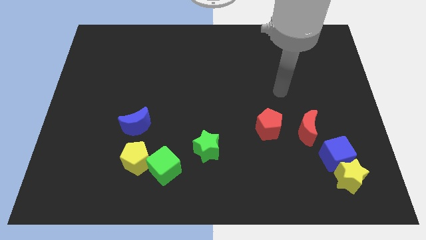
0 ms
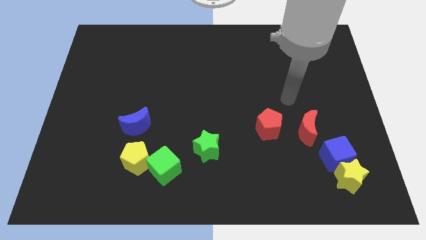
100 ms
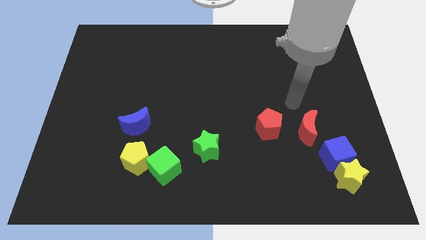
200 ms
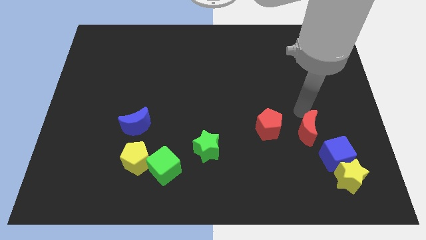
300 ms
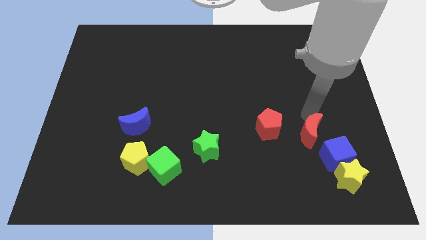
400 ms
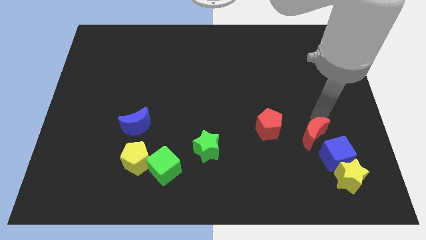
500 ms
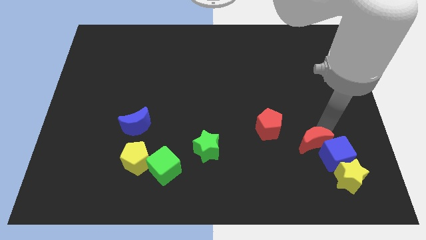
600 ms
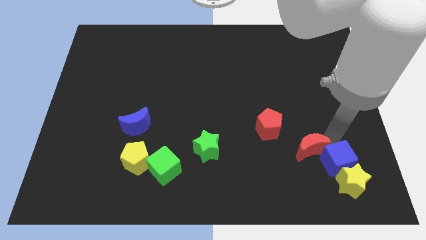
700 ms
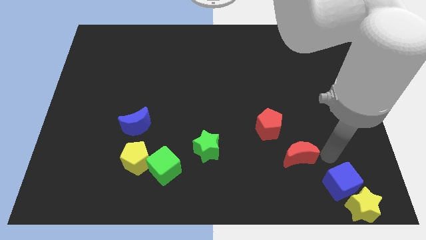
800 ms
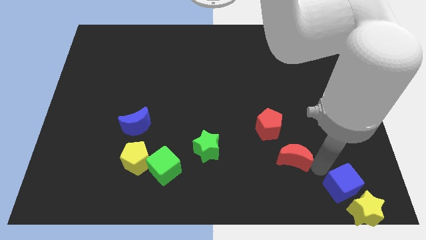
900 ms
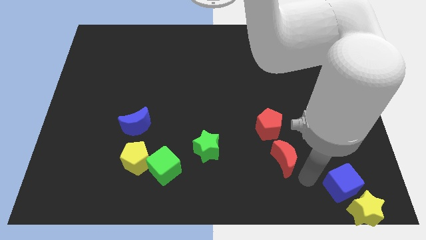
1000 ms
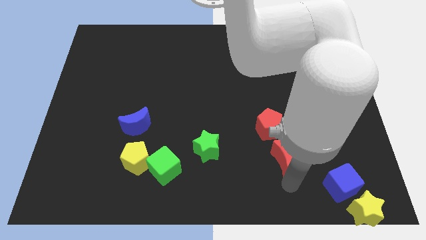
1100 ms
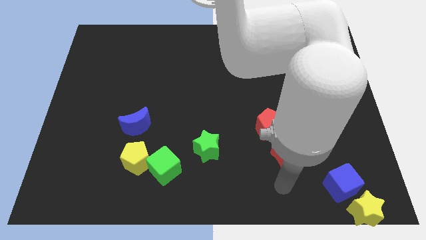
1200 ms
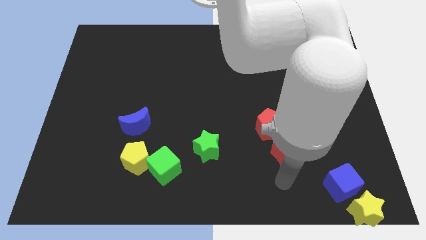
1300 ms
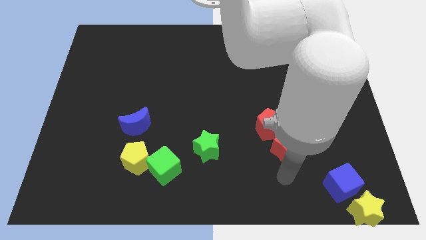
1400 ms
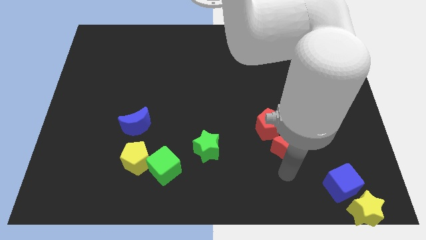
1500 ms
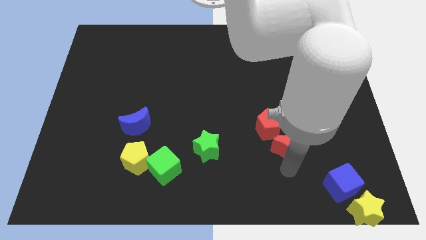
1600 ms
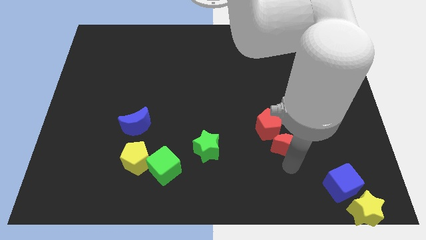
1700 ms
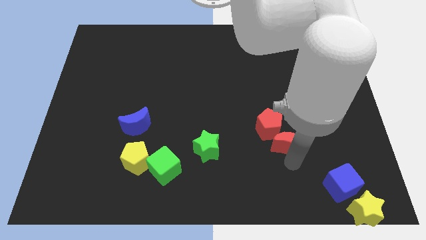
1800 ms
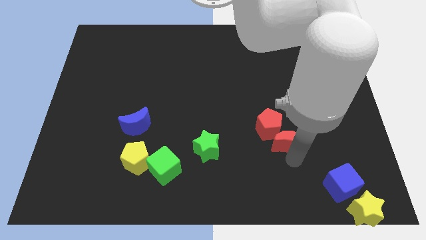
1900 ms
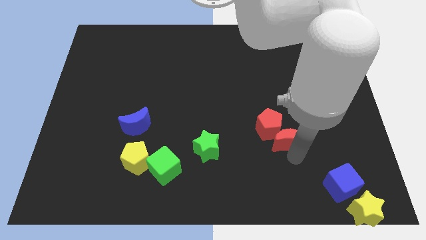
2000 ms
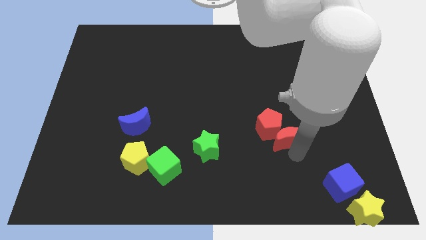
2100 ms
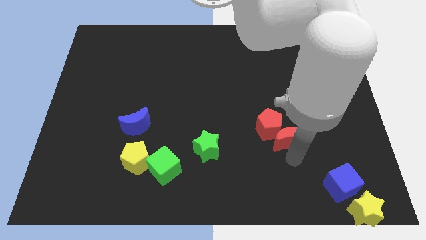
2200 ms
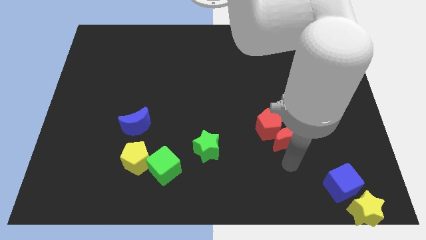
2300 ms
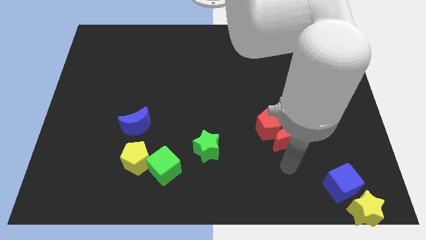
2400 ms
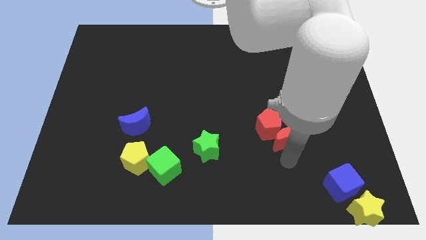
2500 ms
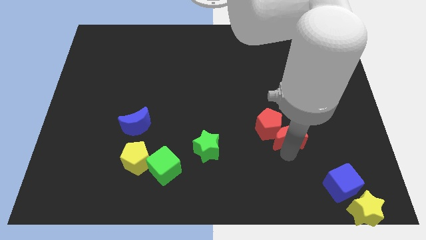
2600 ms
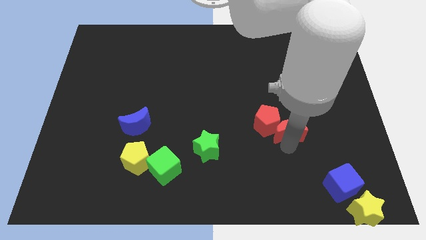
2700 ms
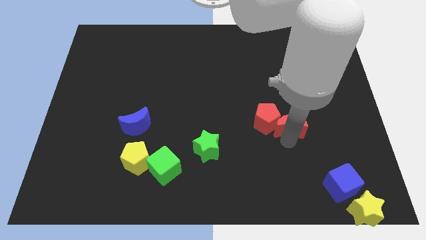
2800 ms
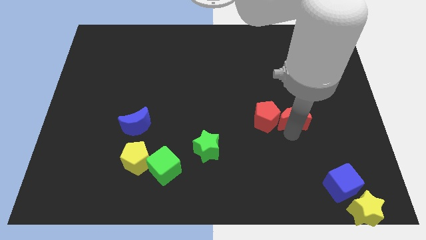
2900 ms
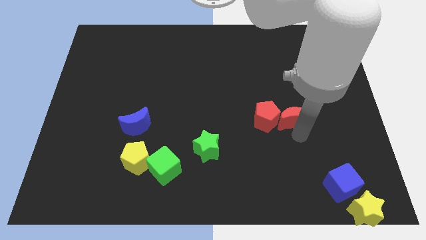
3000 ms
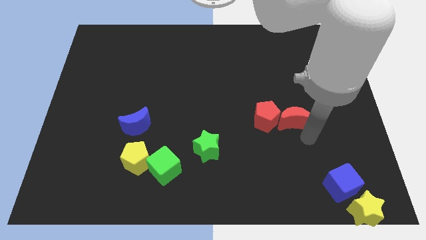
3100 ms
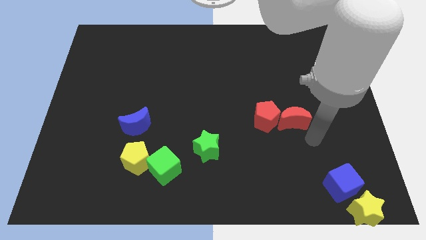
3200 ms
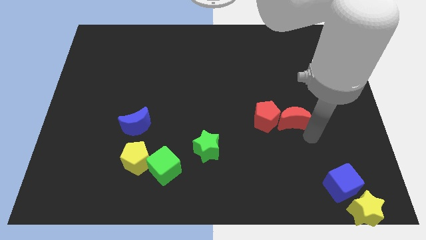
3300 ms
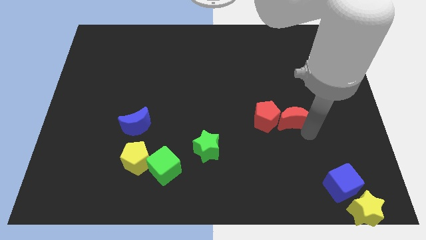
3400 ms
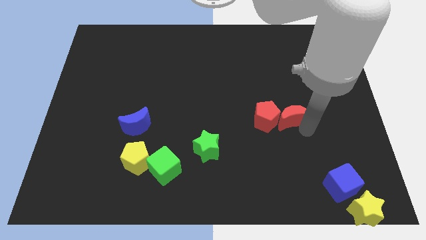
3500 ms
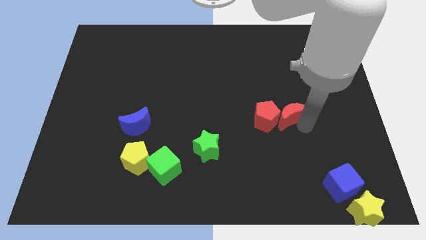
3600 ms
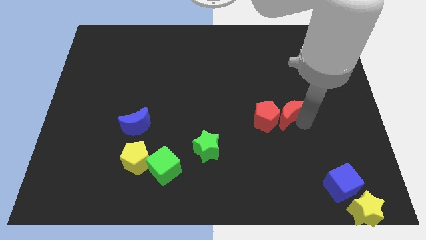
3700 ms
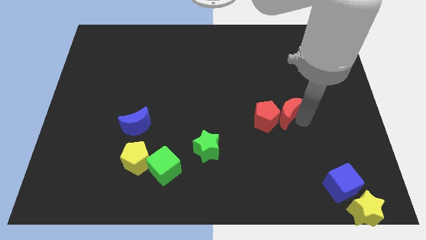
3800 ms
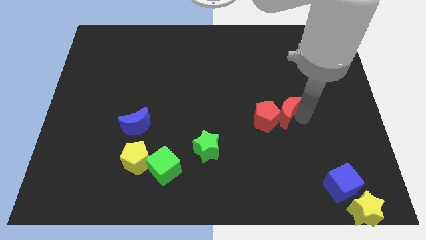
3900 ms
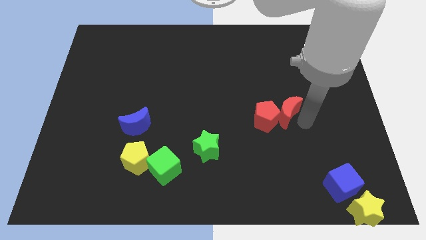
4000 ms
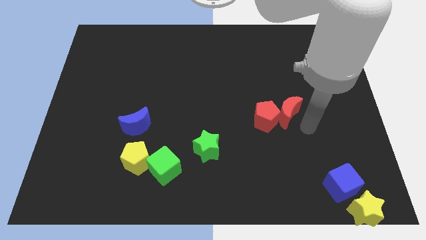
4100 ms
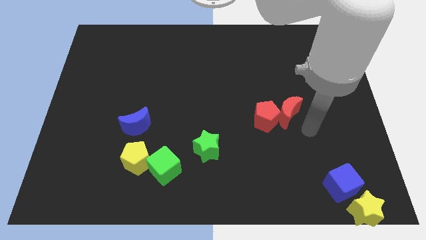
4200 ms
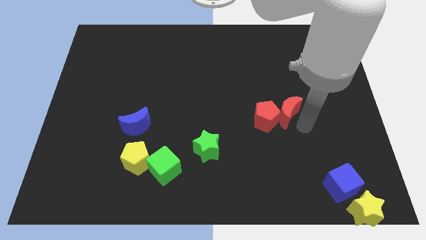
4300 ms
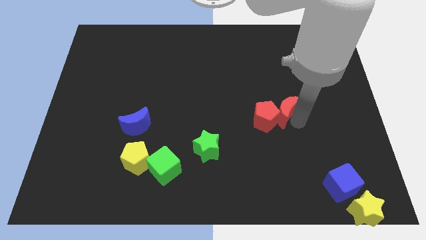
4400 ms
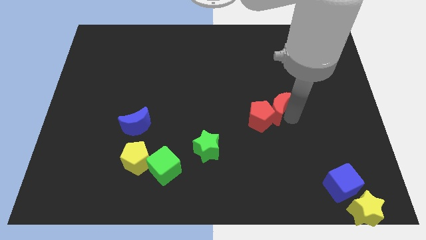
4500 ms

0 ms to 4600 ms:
move the red moon up and to the left diagonally a bit

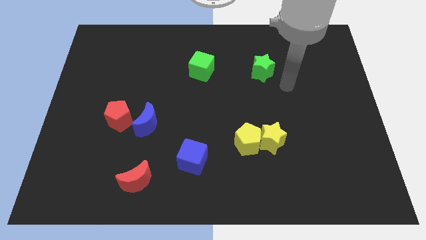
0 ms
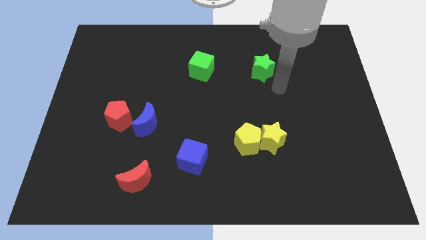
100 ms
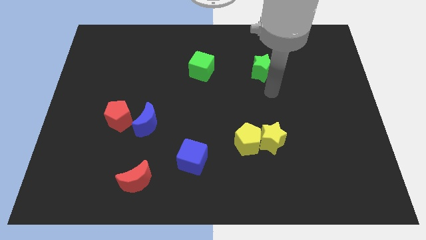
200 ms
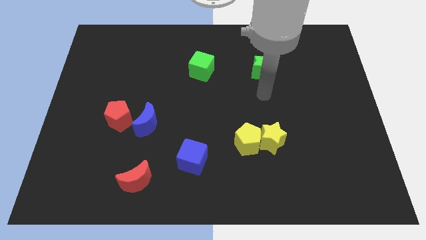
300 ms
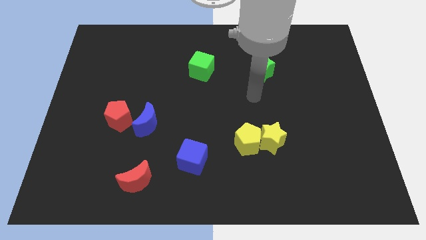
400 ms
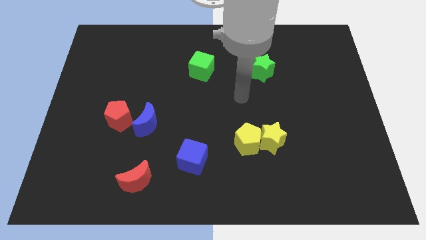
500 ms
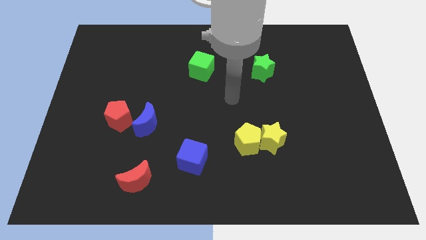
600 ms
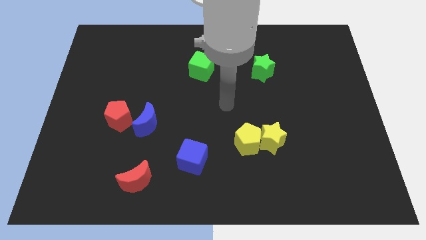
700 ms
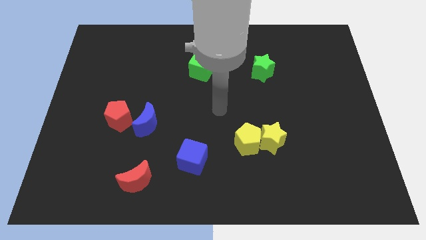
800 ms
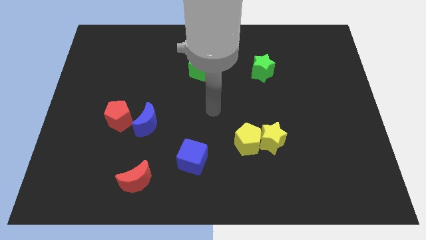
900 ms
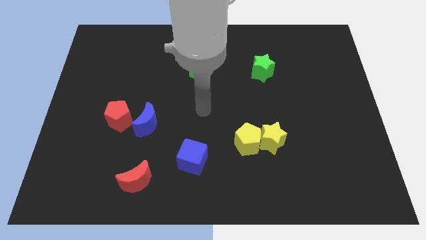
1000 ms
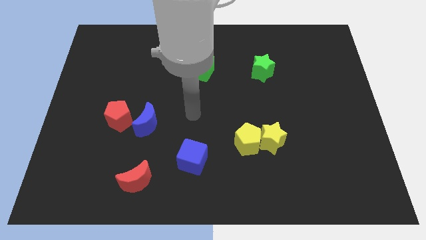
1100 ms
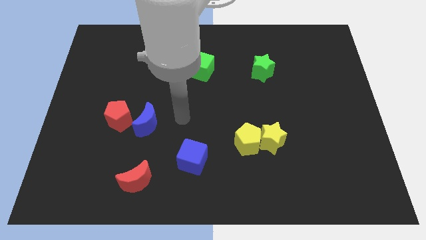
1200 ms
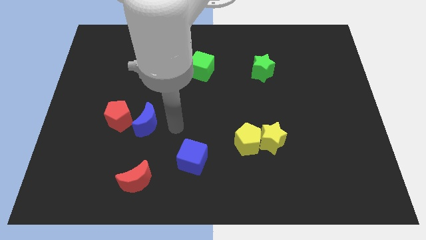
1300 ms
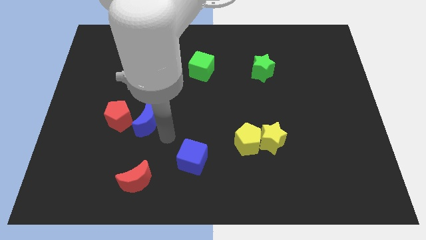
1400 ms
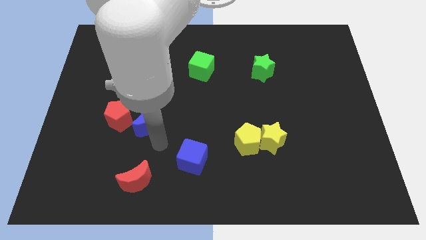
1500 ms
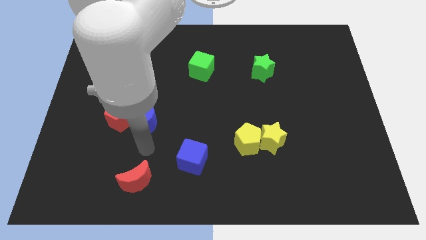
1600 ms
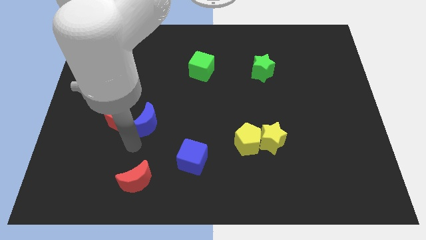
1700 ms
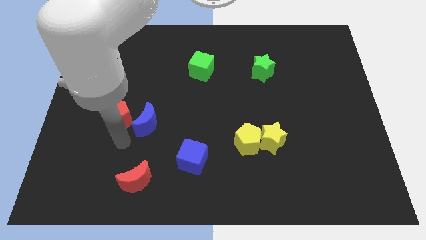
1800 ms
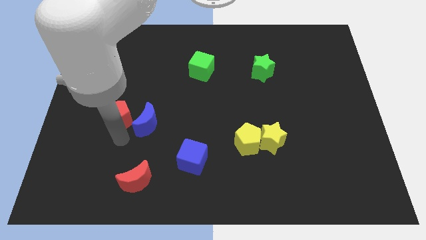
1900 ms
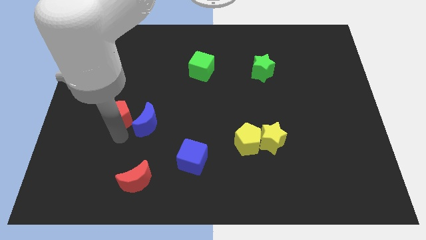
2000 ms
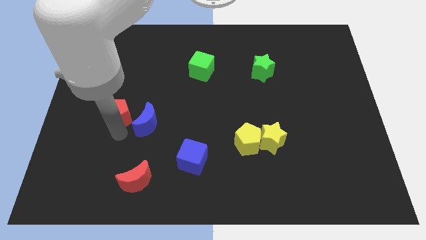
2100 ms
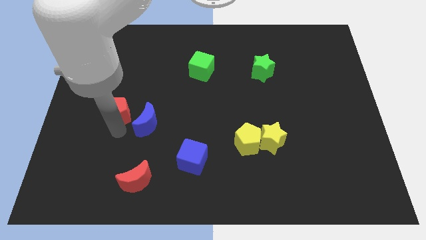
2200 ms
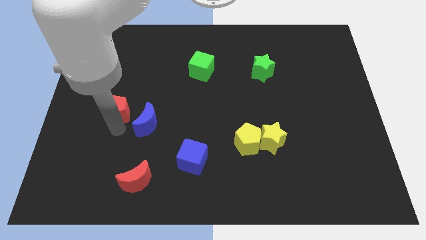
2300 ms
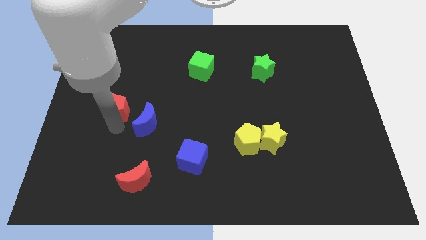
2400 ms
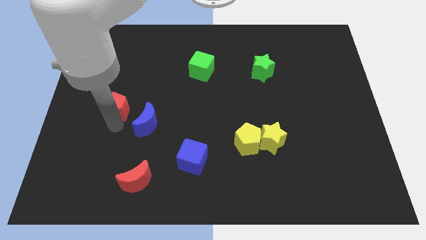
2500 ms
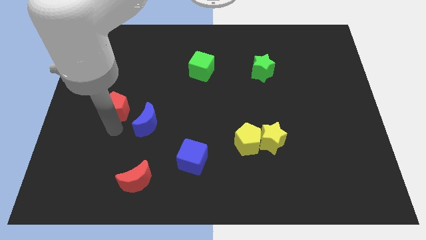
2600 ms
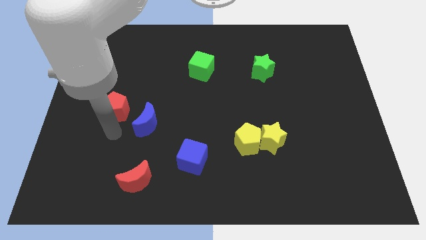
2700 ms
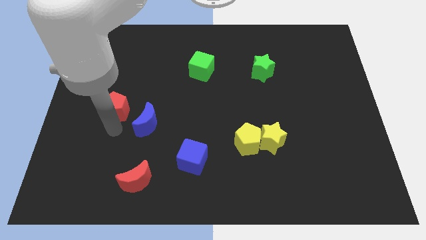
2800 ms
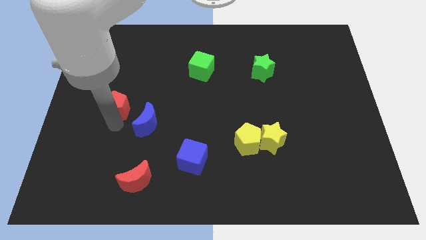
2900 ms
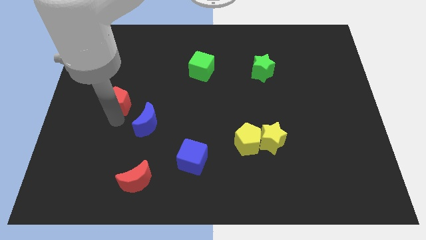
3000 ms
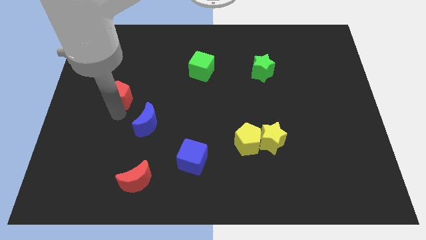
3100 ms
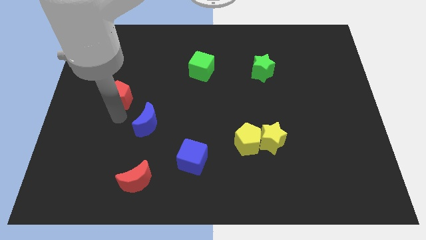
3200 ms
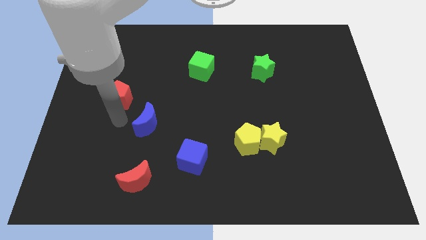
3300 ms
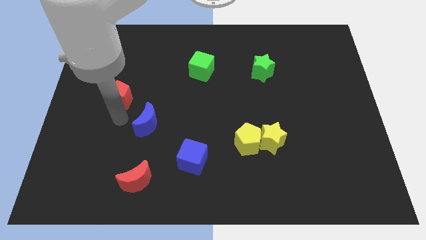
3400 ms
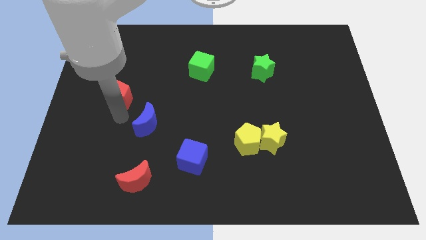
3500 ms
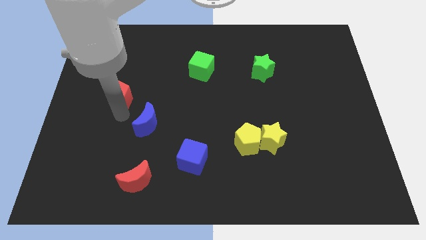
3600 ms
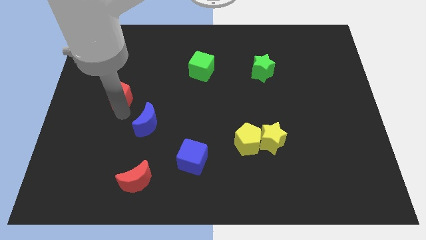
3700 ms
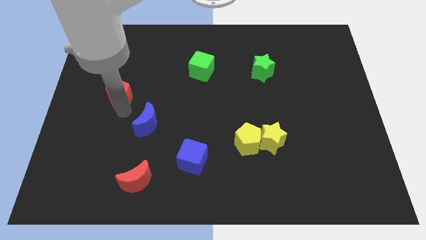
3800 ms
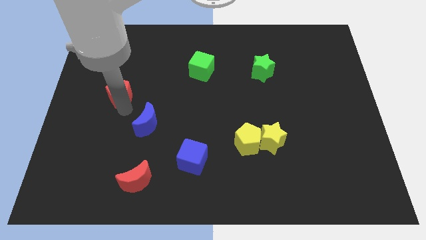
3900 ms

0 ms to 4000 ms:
move the red pentagon a bit upwards

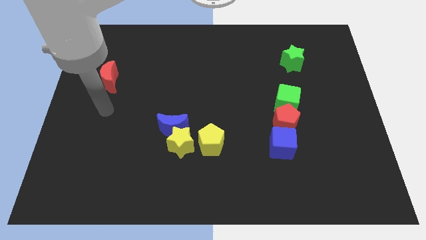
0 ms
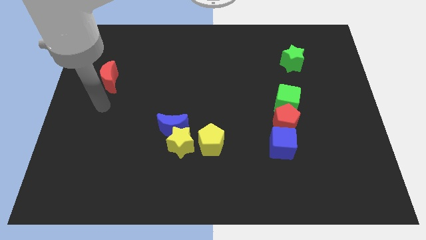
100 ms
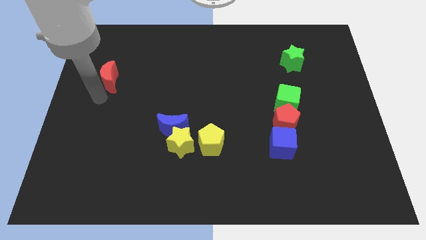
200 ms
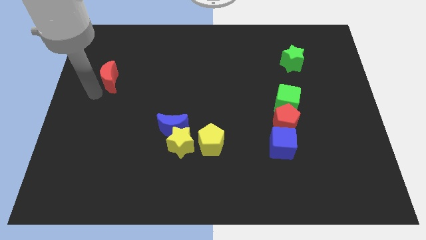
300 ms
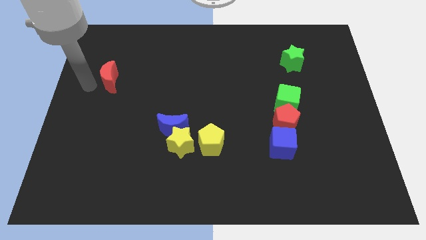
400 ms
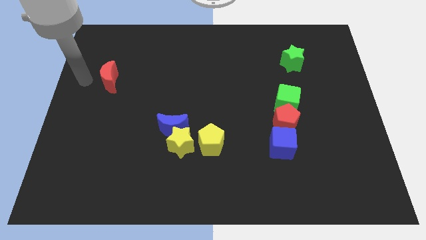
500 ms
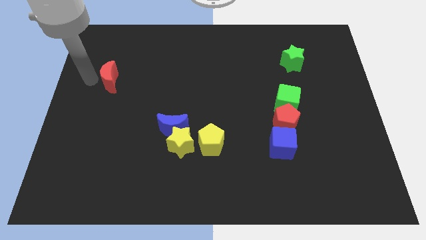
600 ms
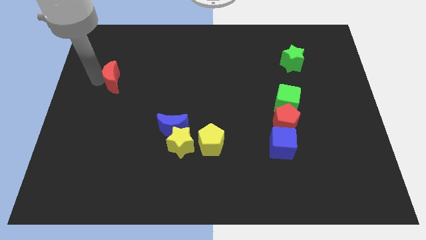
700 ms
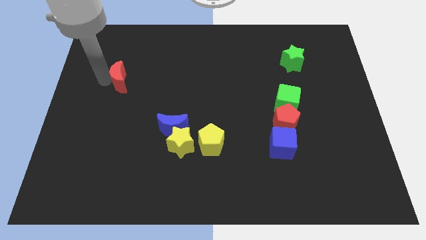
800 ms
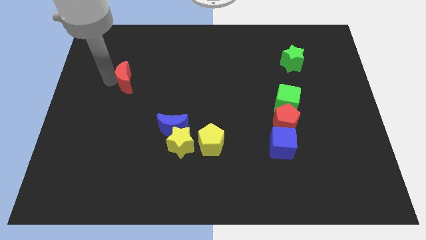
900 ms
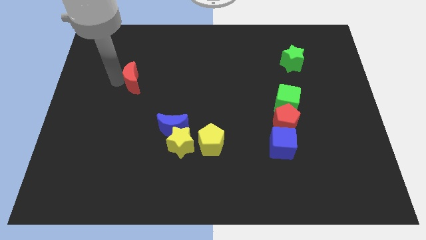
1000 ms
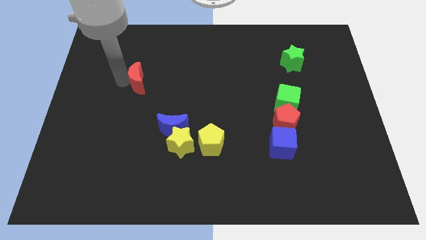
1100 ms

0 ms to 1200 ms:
push the red moon right somewhat
